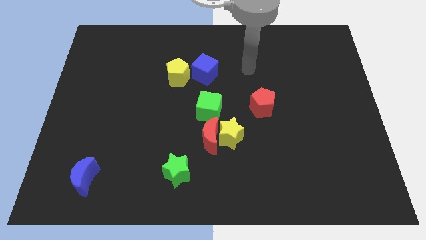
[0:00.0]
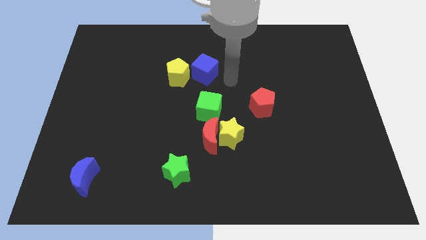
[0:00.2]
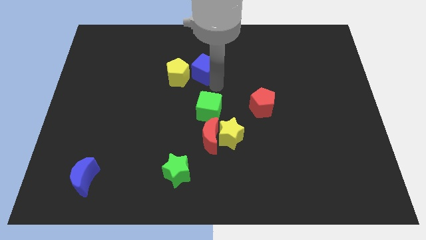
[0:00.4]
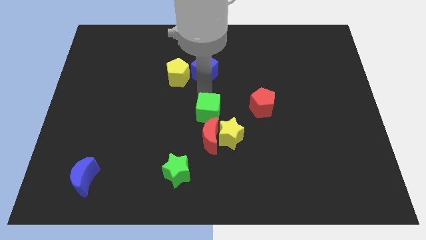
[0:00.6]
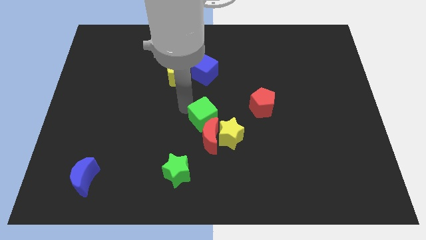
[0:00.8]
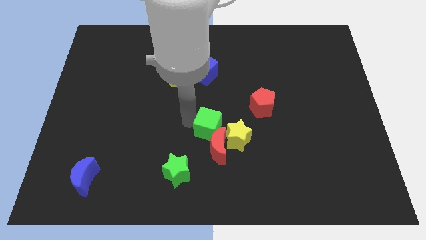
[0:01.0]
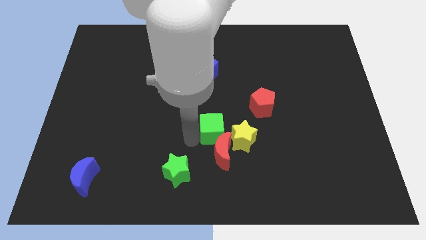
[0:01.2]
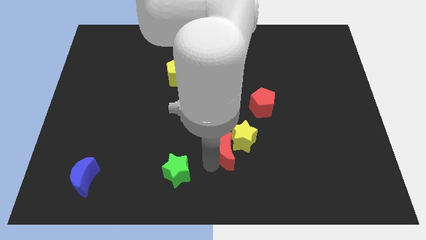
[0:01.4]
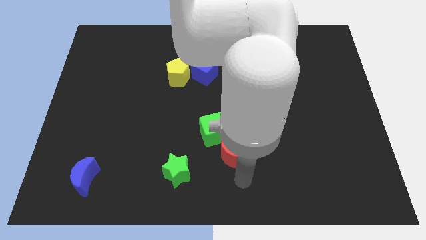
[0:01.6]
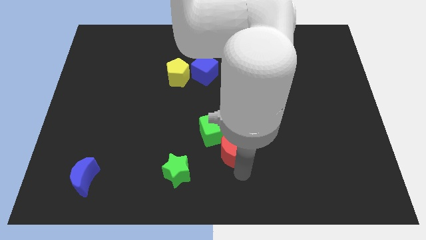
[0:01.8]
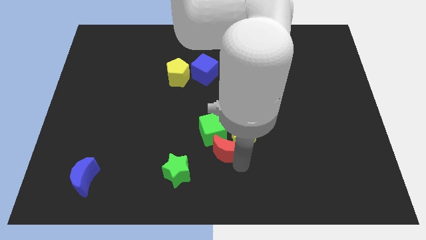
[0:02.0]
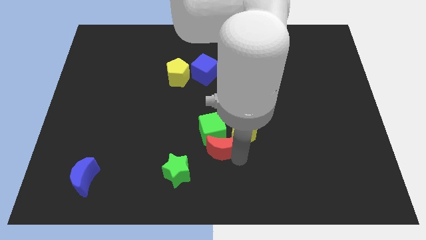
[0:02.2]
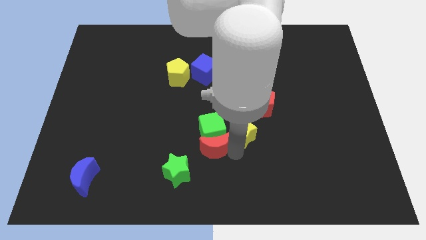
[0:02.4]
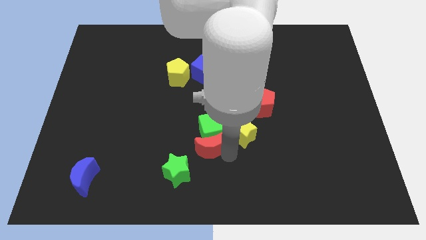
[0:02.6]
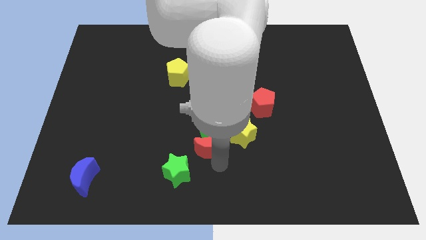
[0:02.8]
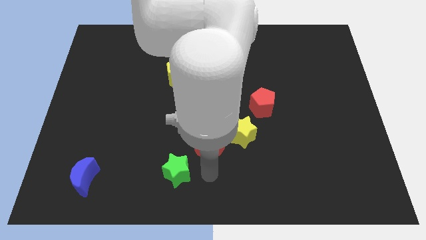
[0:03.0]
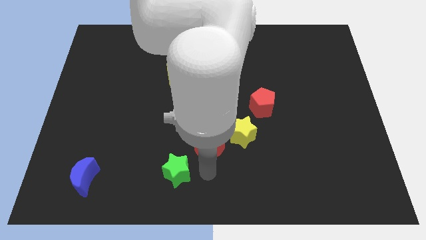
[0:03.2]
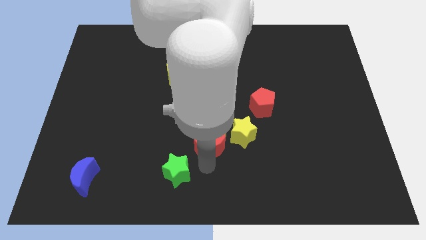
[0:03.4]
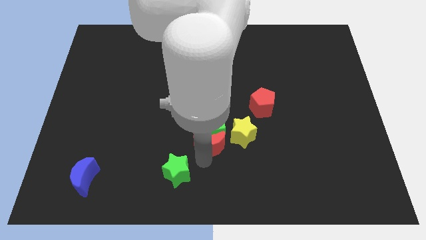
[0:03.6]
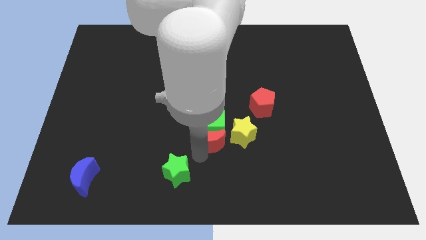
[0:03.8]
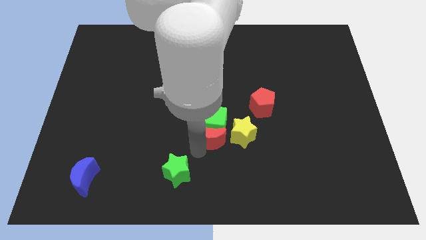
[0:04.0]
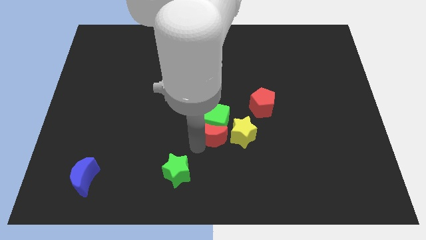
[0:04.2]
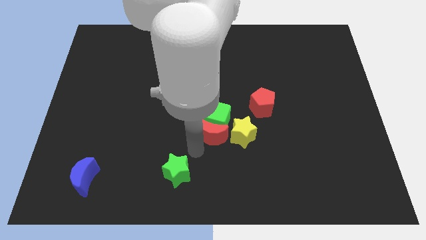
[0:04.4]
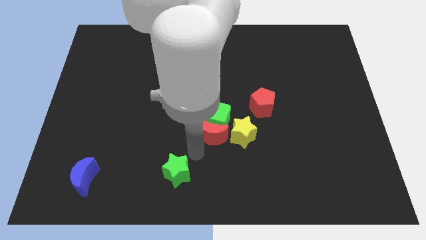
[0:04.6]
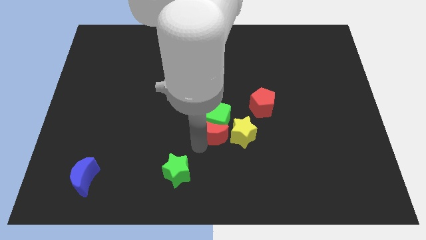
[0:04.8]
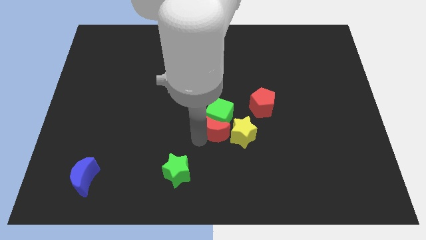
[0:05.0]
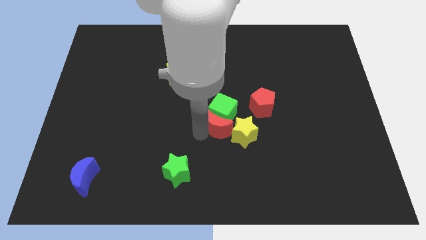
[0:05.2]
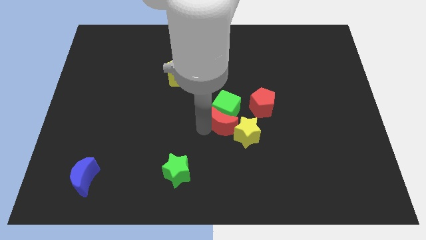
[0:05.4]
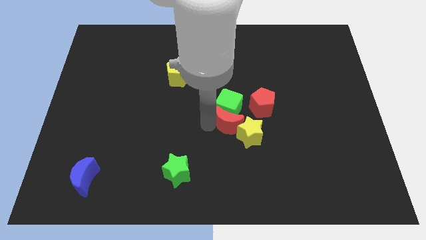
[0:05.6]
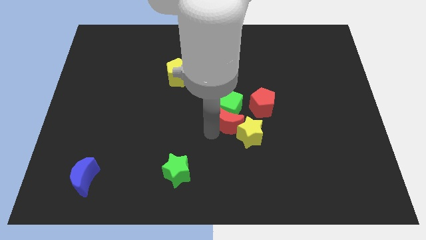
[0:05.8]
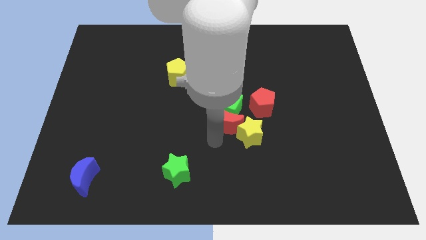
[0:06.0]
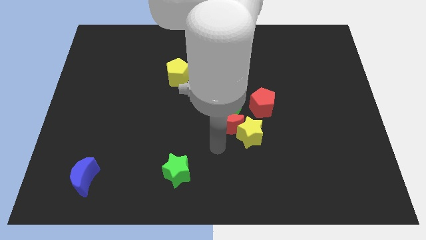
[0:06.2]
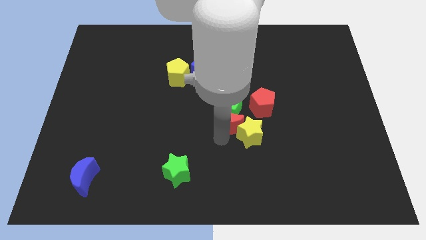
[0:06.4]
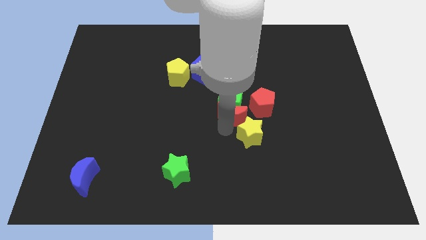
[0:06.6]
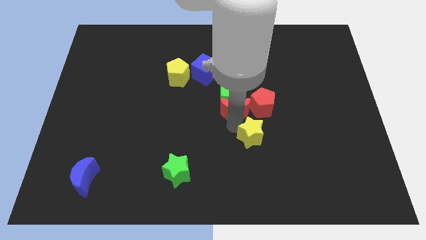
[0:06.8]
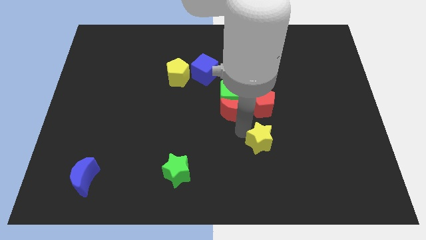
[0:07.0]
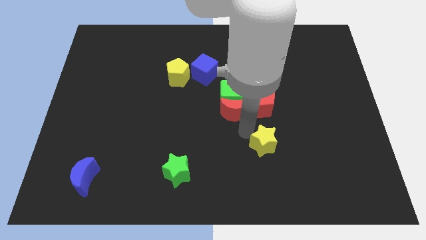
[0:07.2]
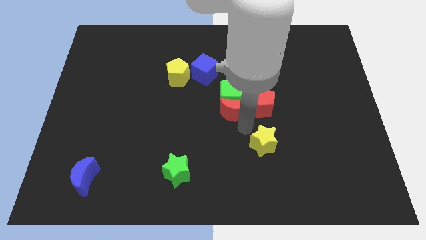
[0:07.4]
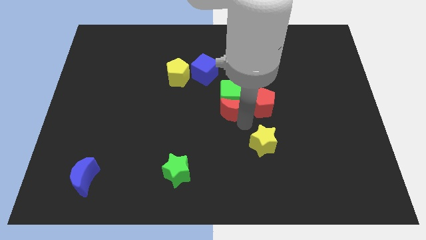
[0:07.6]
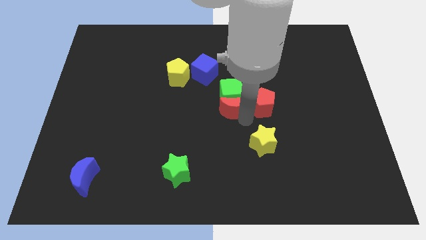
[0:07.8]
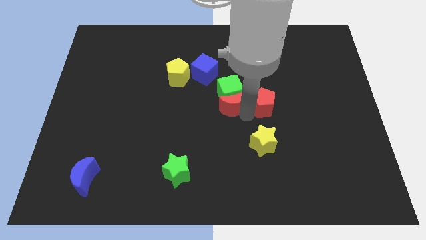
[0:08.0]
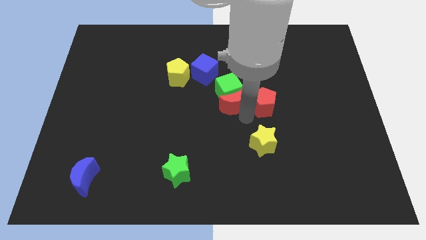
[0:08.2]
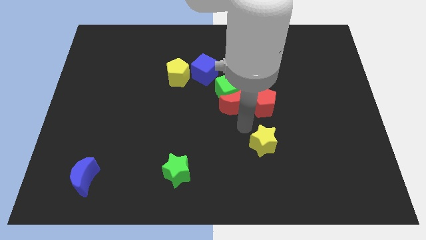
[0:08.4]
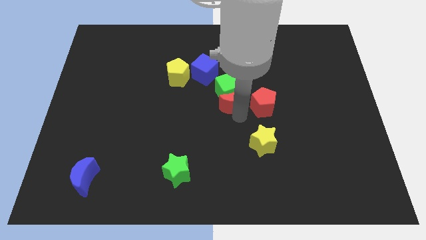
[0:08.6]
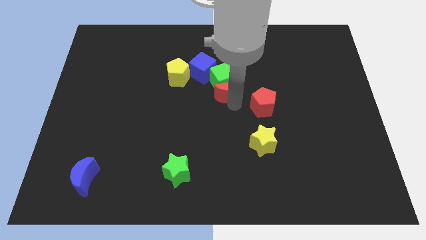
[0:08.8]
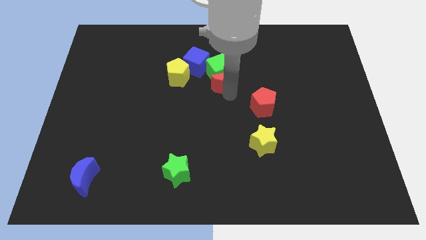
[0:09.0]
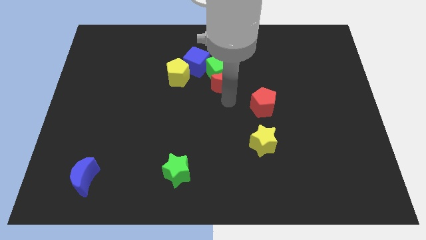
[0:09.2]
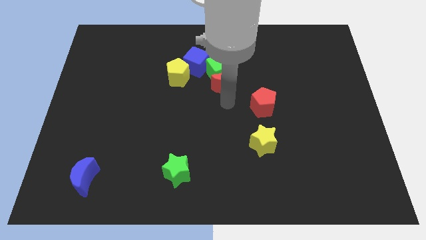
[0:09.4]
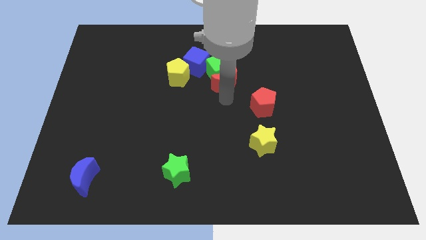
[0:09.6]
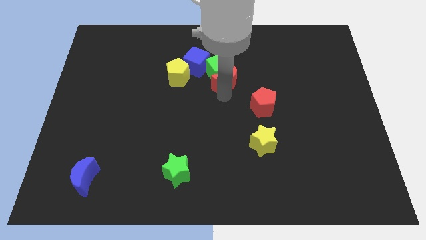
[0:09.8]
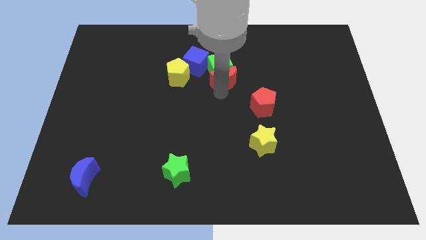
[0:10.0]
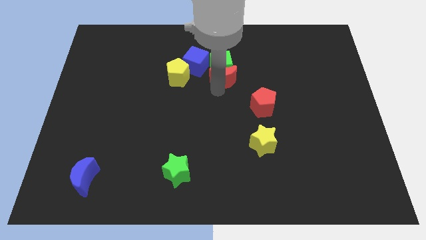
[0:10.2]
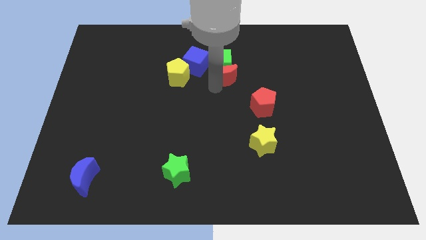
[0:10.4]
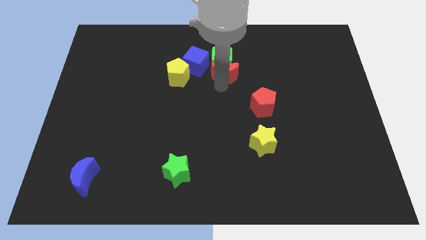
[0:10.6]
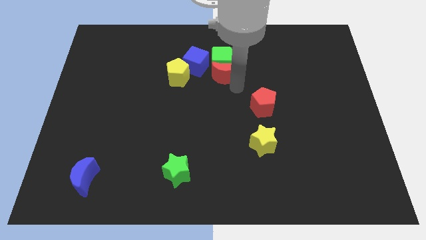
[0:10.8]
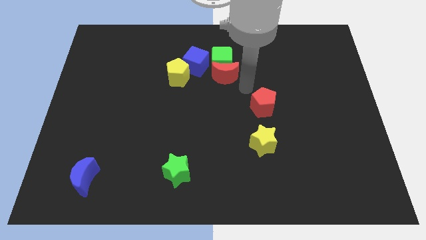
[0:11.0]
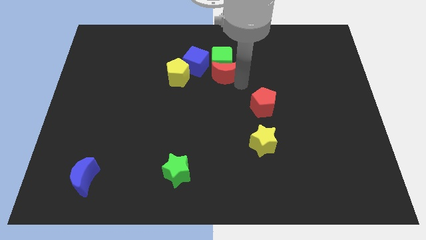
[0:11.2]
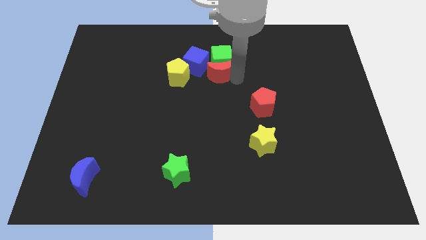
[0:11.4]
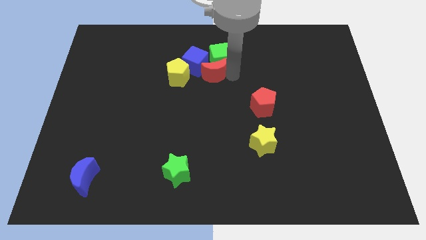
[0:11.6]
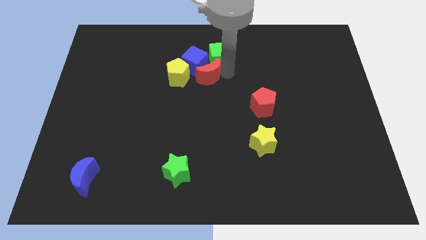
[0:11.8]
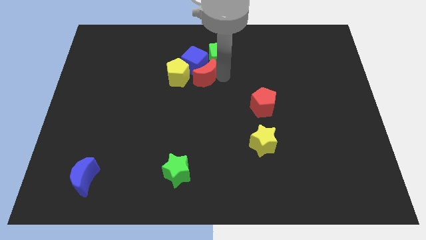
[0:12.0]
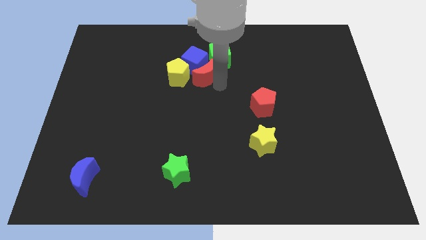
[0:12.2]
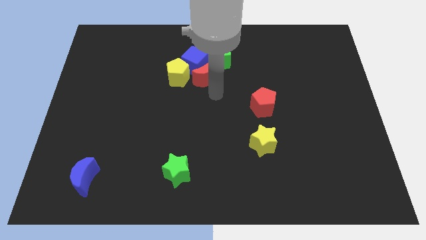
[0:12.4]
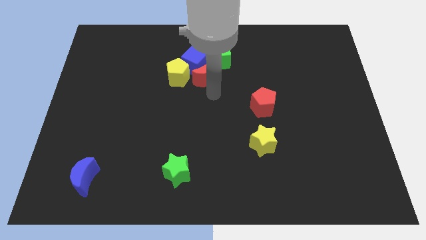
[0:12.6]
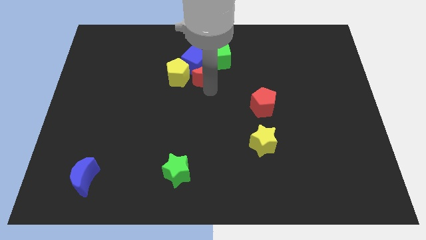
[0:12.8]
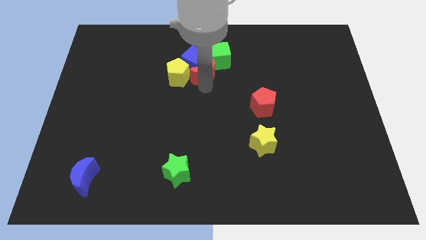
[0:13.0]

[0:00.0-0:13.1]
push the red moon diagonally up and to the right of the yellow pentagon
